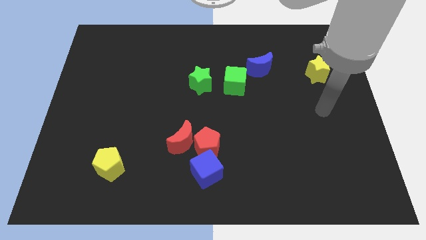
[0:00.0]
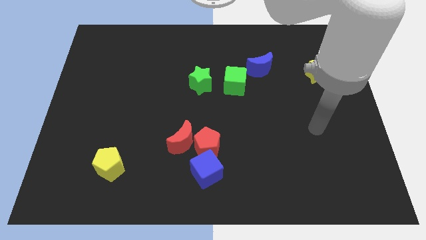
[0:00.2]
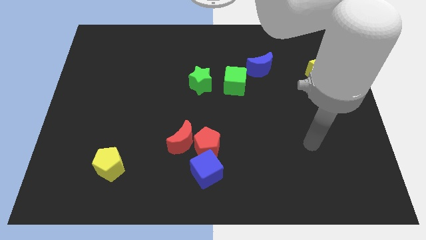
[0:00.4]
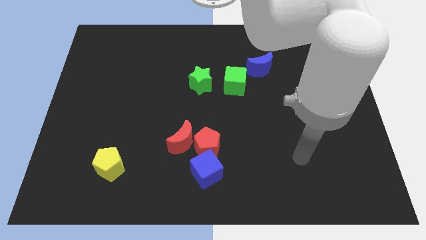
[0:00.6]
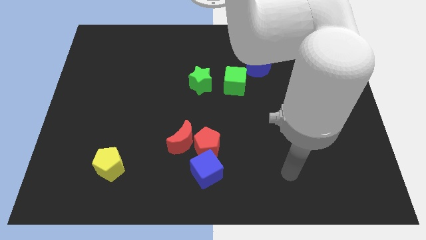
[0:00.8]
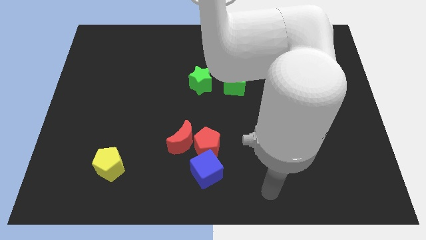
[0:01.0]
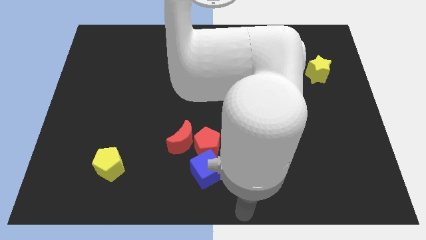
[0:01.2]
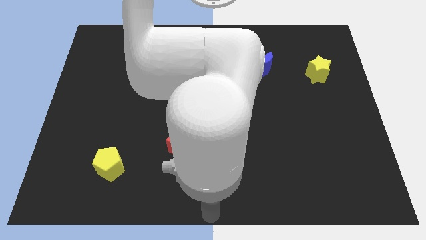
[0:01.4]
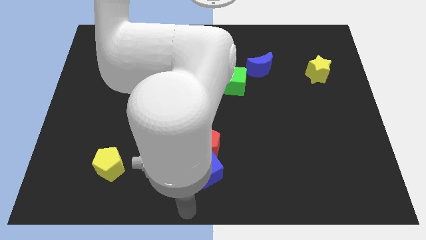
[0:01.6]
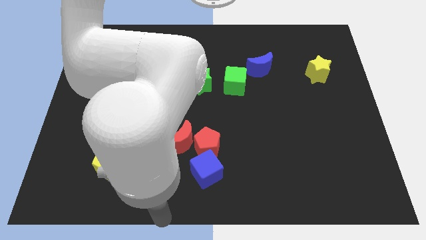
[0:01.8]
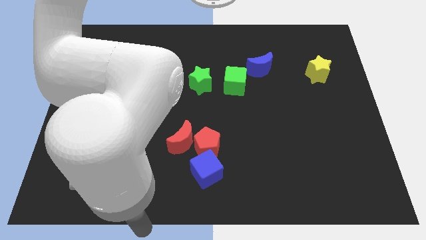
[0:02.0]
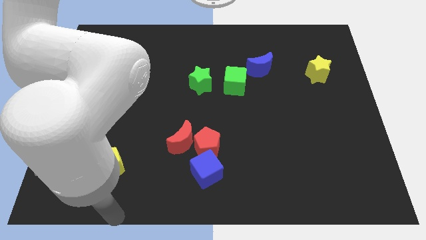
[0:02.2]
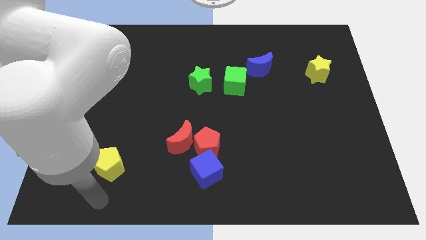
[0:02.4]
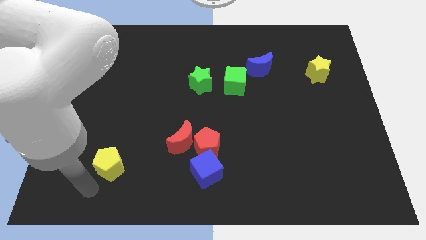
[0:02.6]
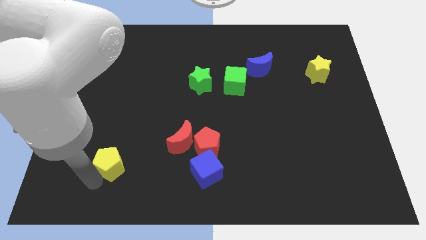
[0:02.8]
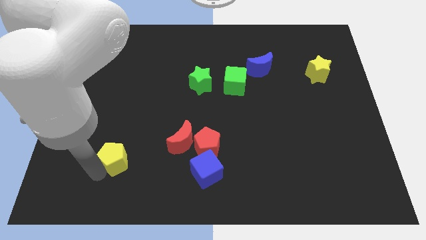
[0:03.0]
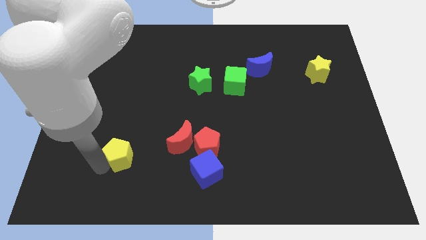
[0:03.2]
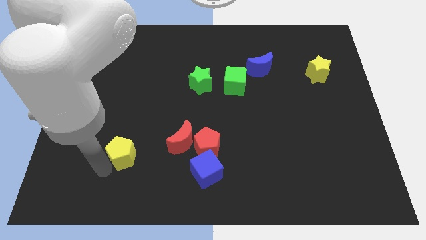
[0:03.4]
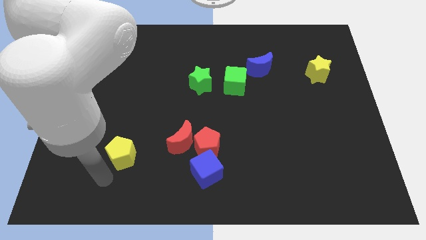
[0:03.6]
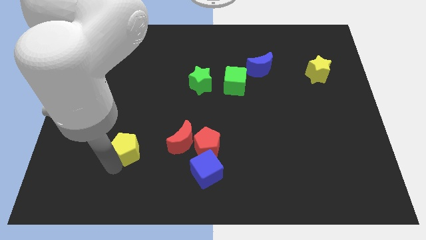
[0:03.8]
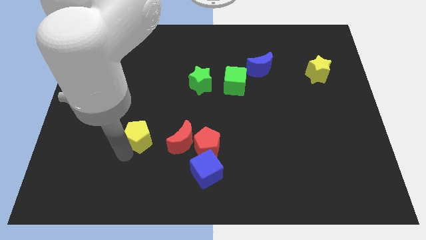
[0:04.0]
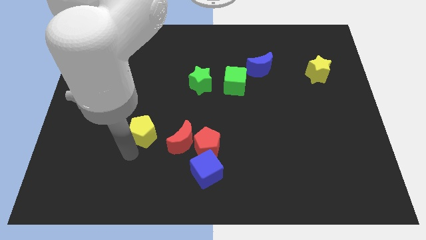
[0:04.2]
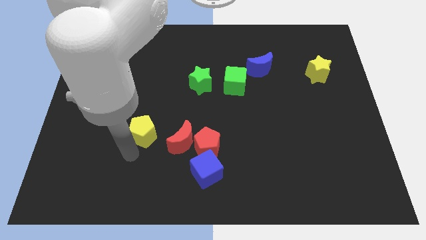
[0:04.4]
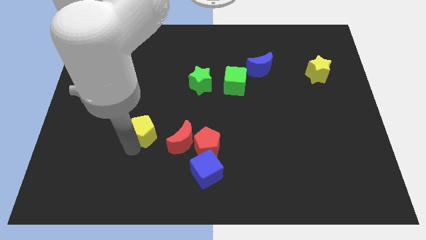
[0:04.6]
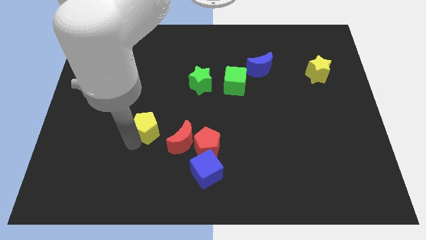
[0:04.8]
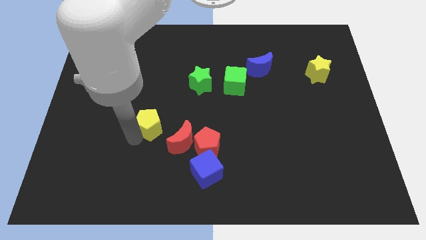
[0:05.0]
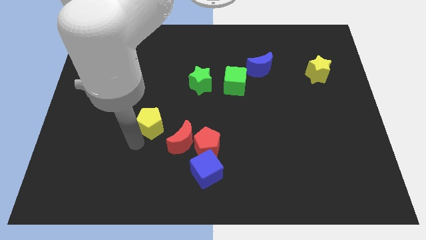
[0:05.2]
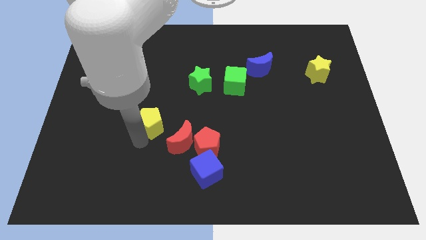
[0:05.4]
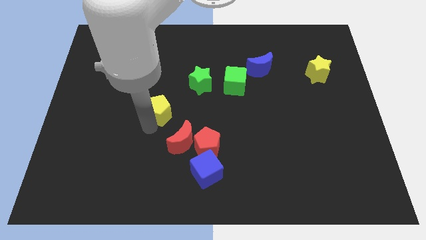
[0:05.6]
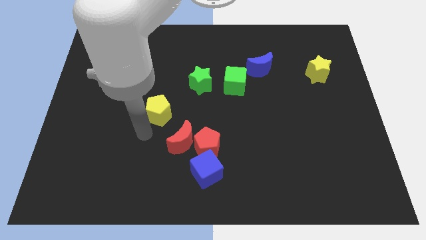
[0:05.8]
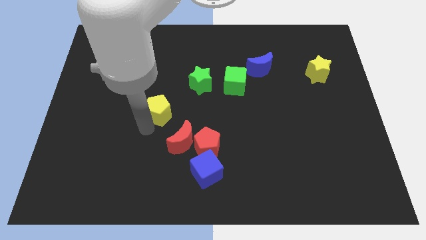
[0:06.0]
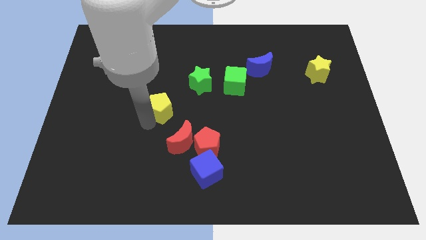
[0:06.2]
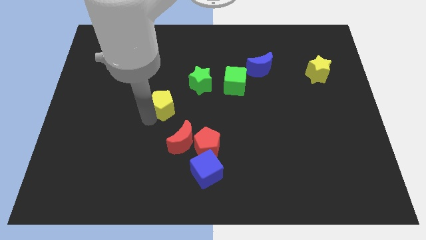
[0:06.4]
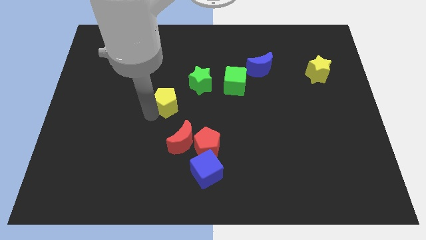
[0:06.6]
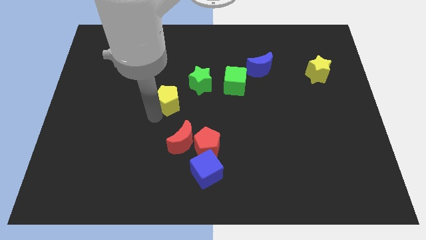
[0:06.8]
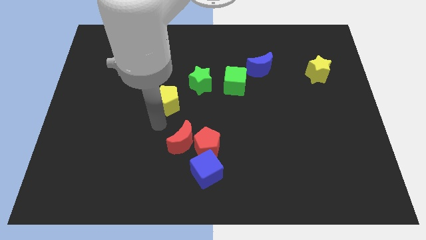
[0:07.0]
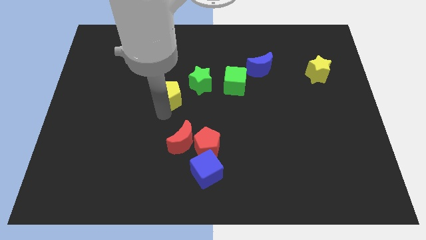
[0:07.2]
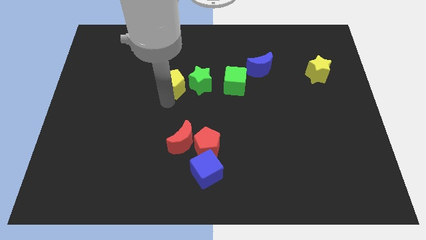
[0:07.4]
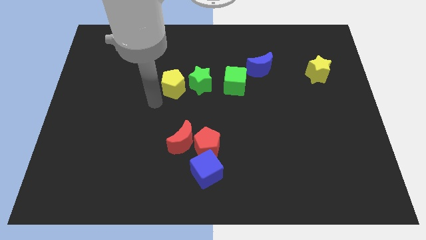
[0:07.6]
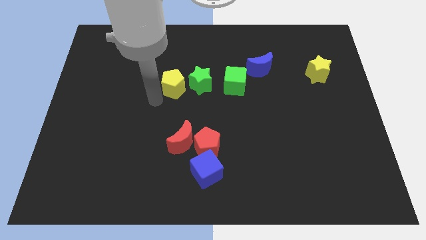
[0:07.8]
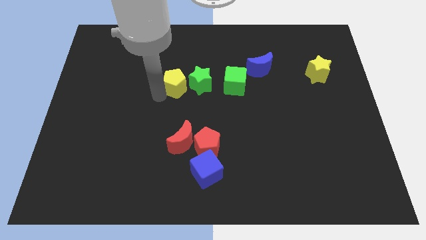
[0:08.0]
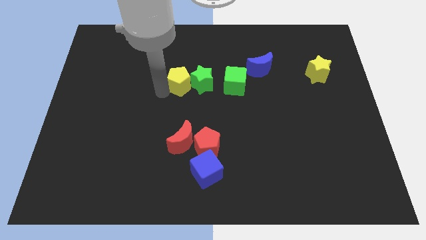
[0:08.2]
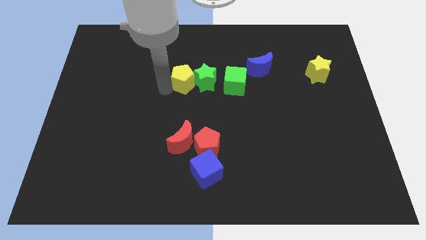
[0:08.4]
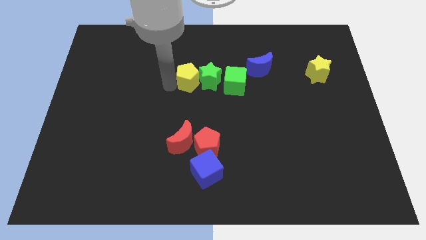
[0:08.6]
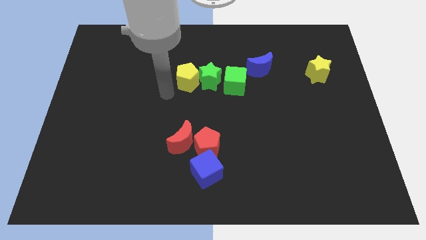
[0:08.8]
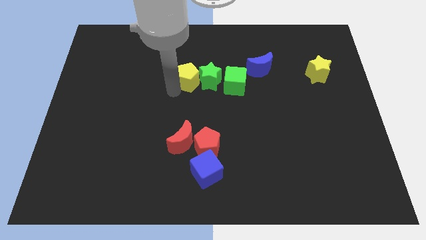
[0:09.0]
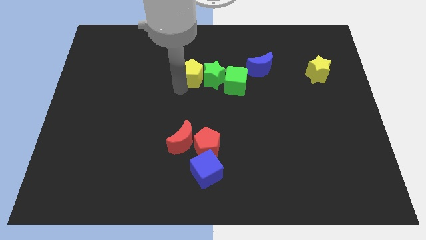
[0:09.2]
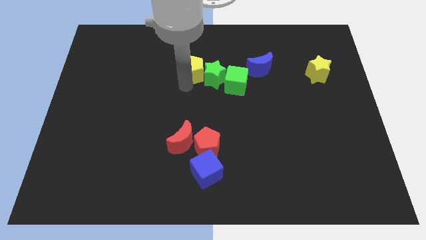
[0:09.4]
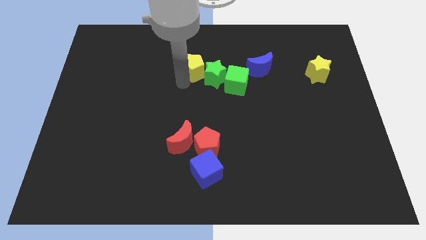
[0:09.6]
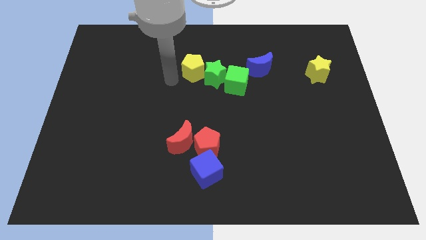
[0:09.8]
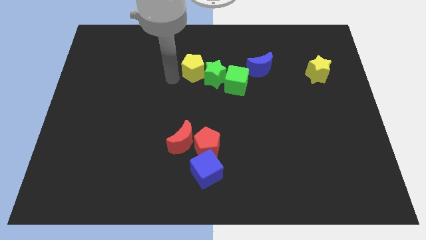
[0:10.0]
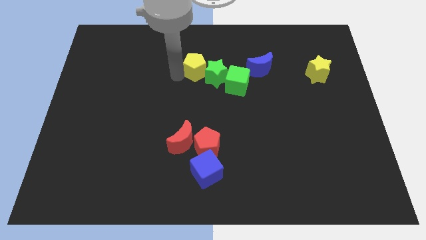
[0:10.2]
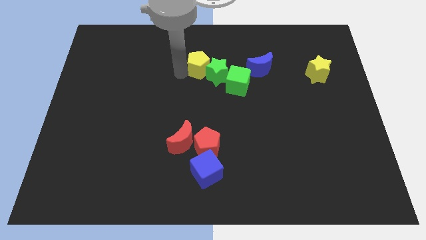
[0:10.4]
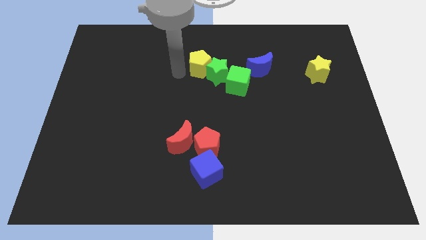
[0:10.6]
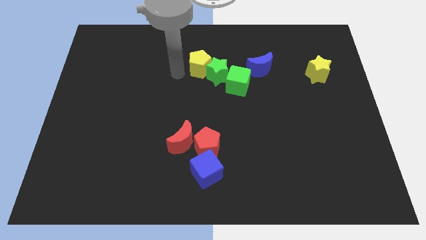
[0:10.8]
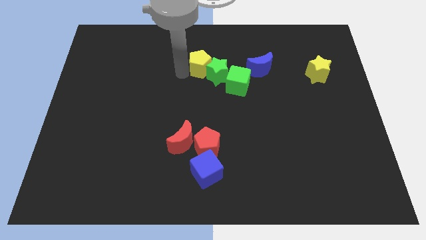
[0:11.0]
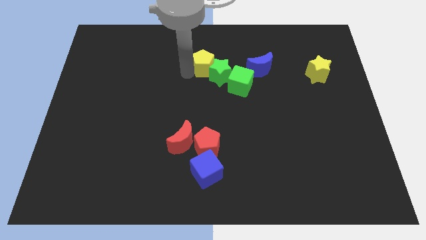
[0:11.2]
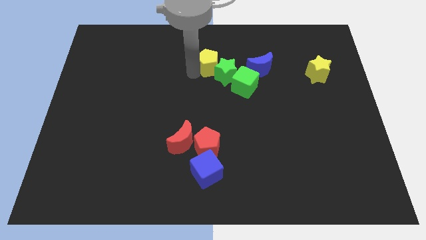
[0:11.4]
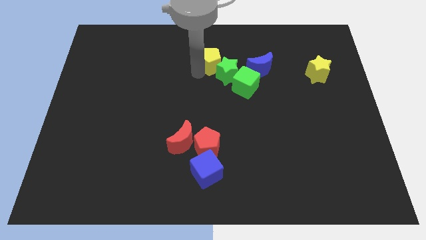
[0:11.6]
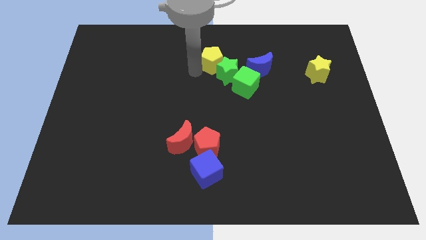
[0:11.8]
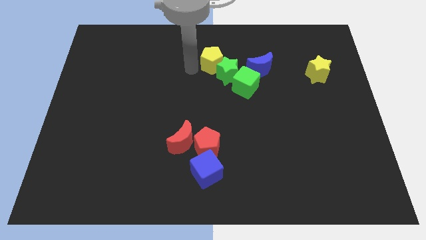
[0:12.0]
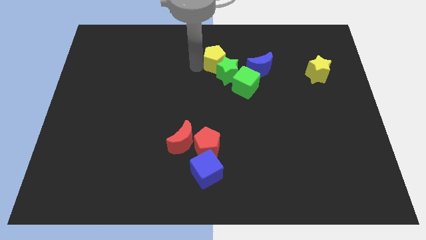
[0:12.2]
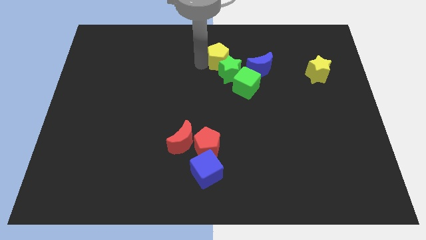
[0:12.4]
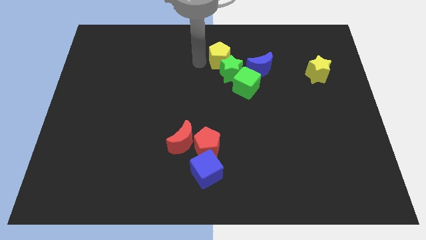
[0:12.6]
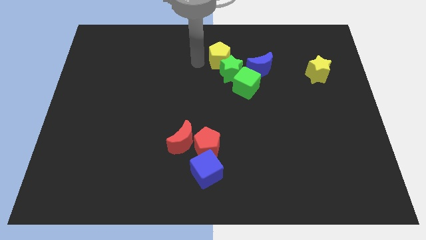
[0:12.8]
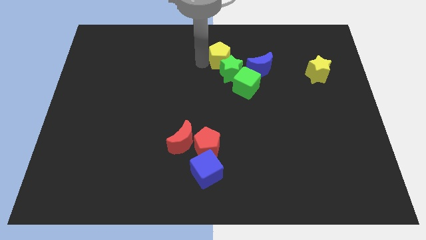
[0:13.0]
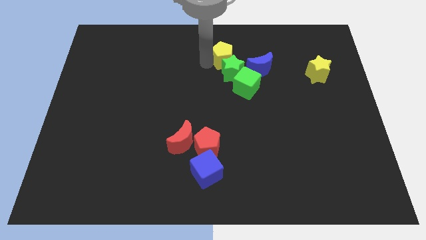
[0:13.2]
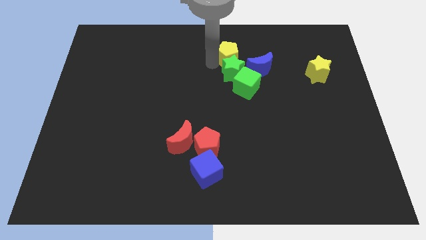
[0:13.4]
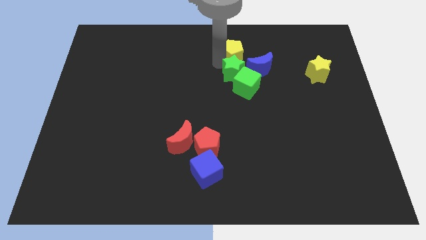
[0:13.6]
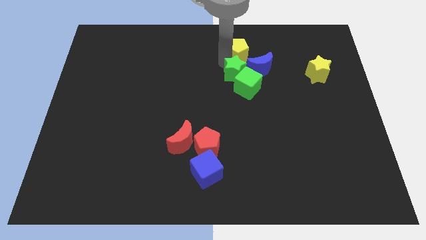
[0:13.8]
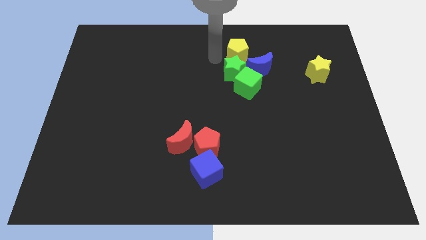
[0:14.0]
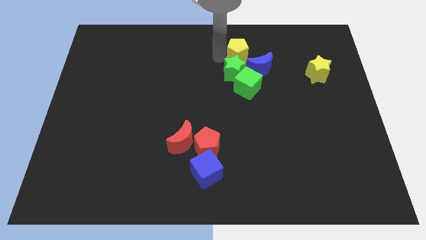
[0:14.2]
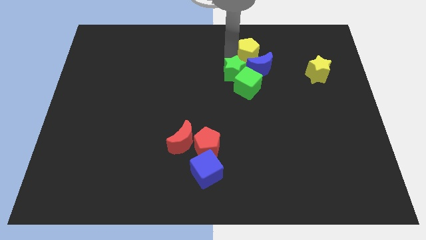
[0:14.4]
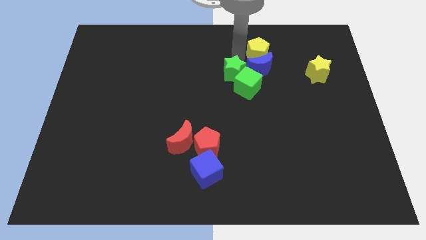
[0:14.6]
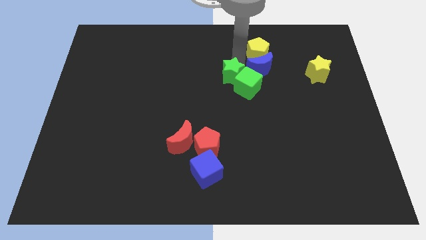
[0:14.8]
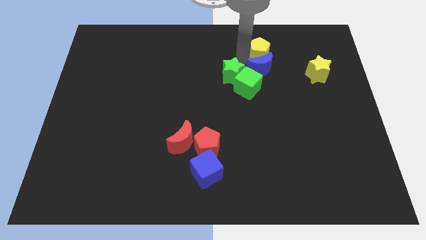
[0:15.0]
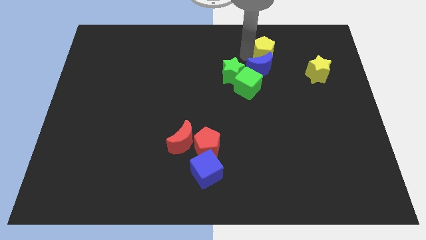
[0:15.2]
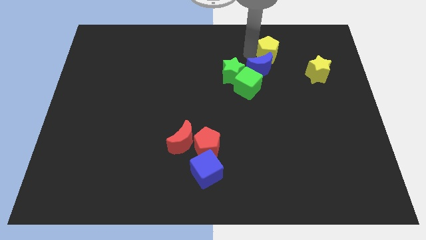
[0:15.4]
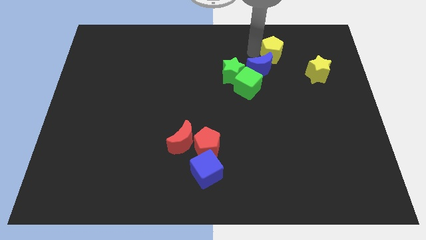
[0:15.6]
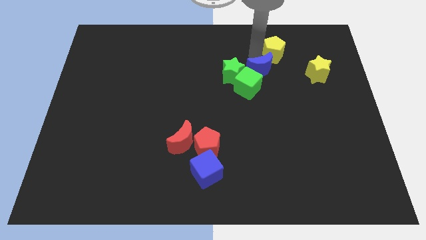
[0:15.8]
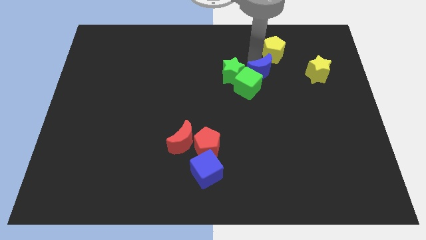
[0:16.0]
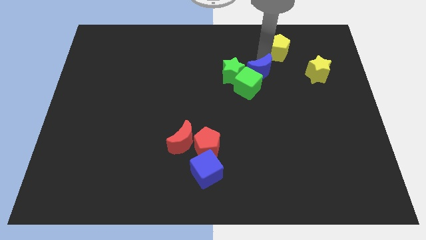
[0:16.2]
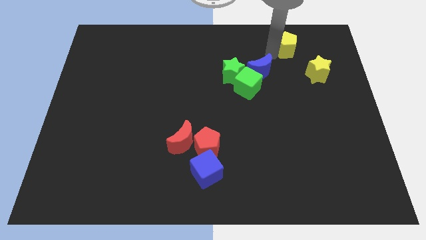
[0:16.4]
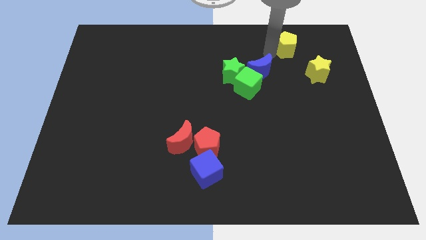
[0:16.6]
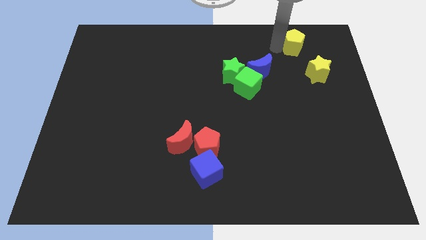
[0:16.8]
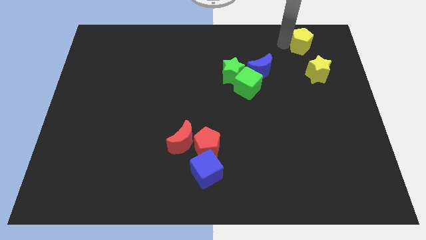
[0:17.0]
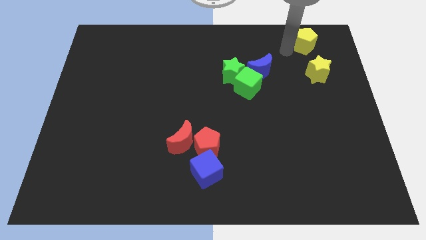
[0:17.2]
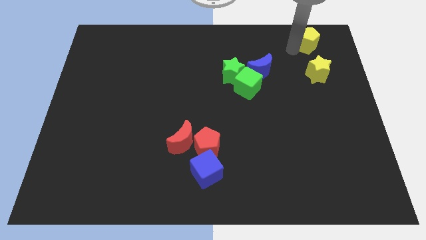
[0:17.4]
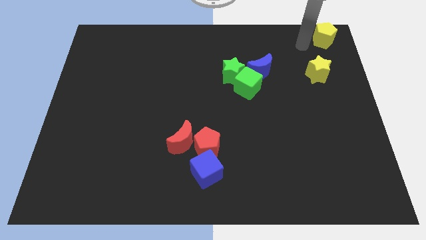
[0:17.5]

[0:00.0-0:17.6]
push the yellow pentagon to the top right corner
